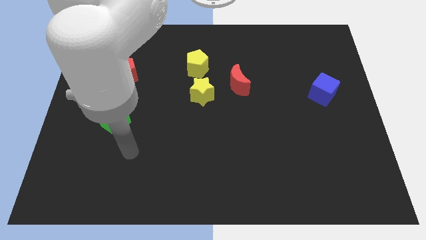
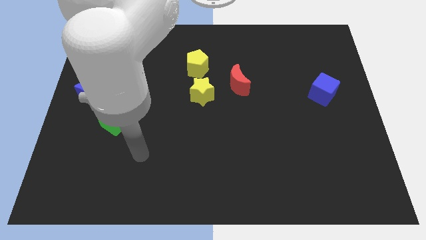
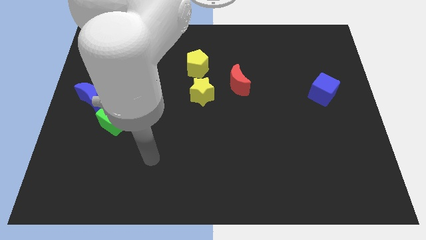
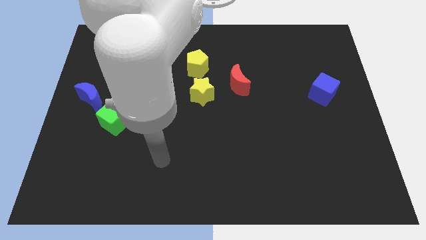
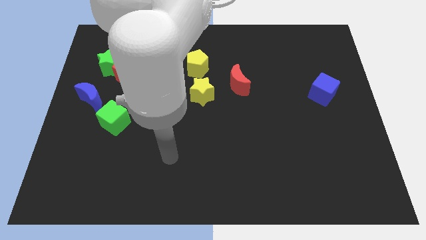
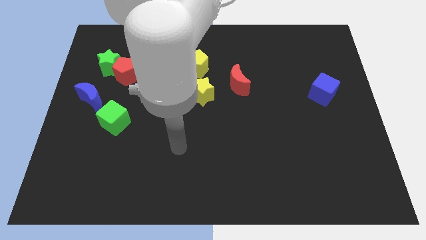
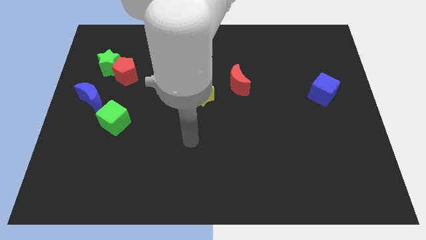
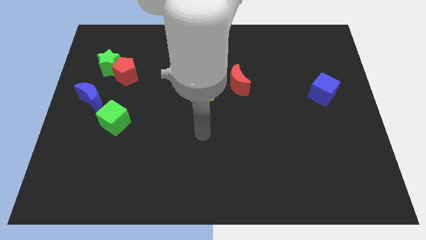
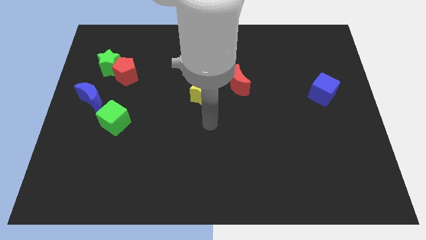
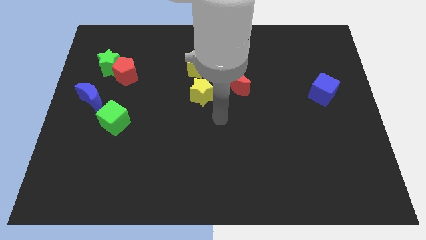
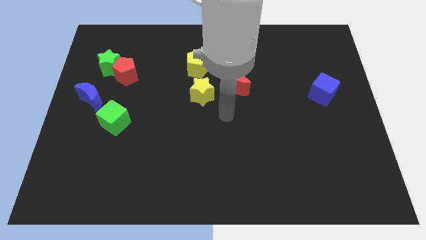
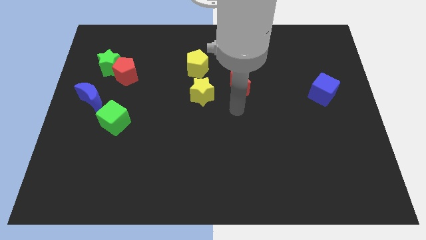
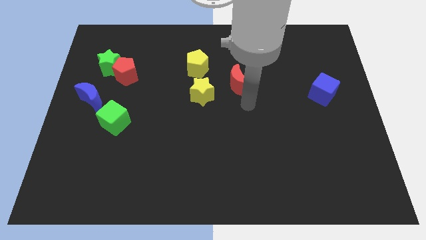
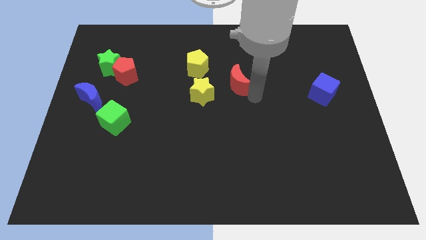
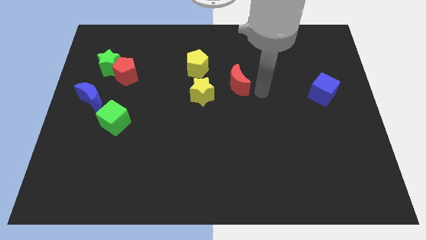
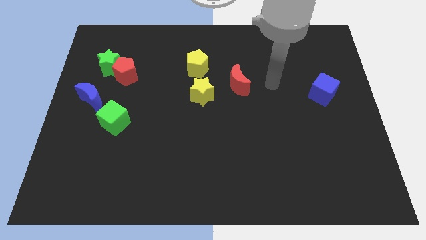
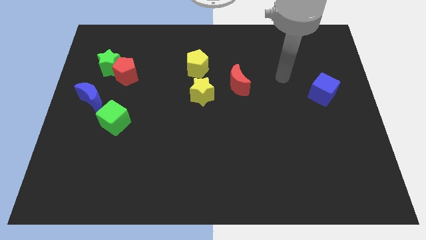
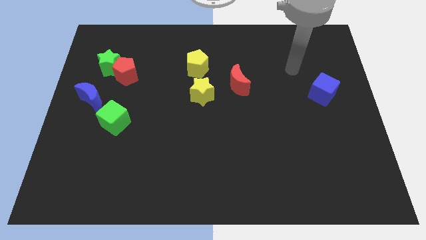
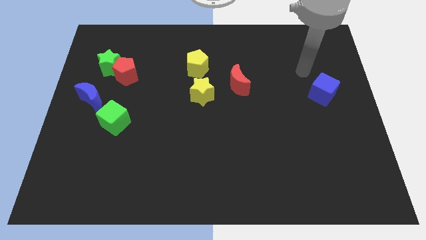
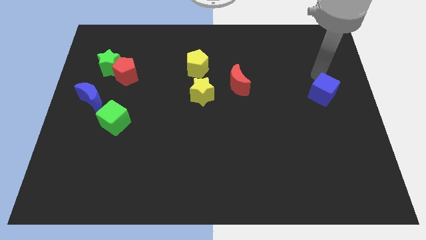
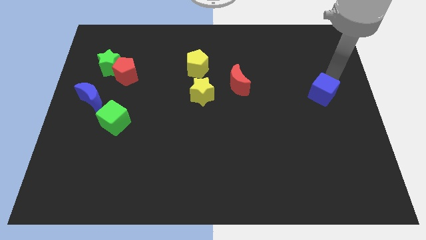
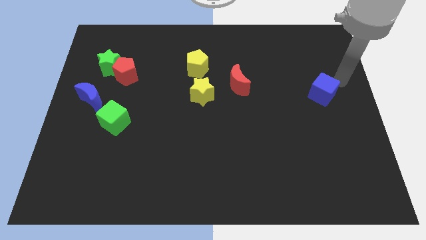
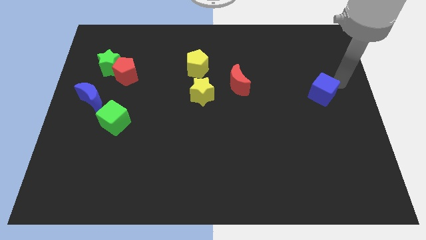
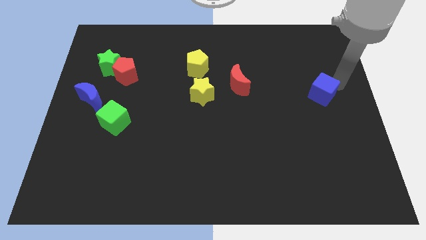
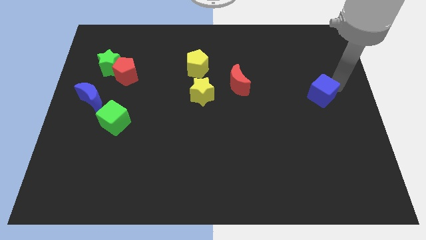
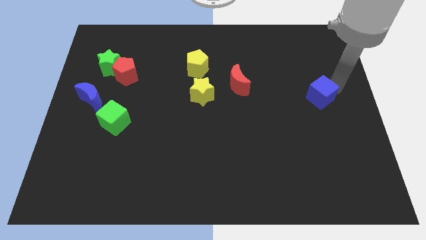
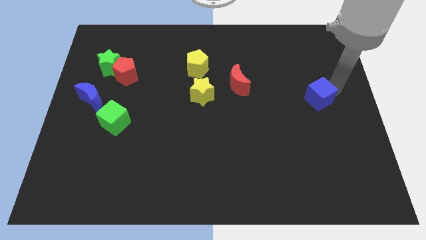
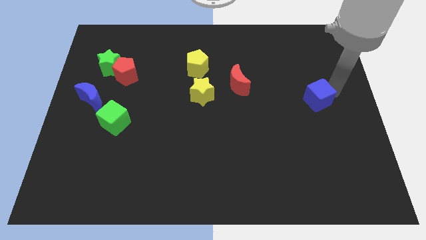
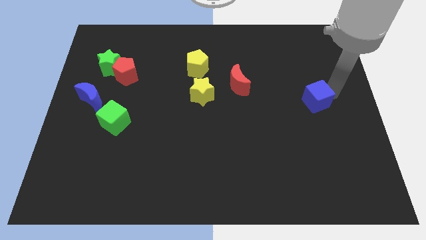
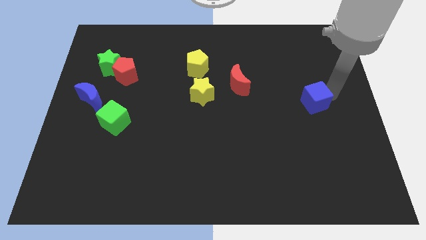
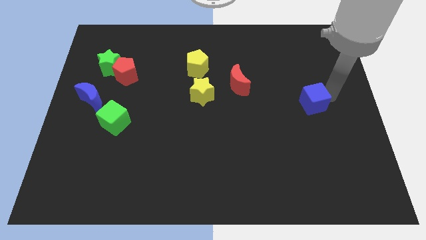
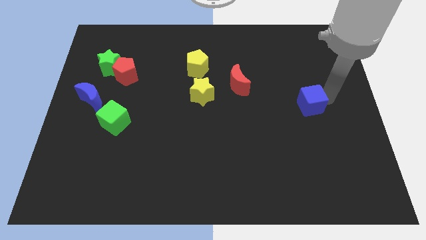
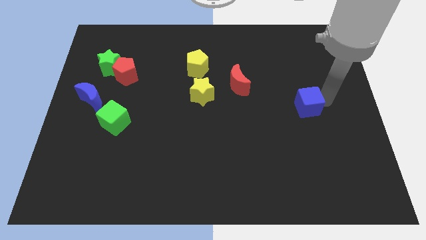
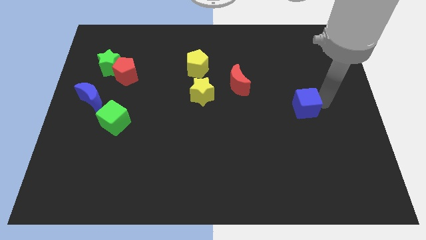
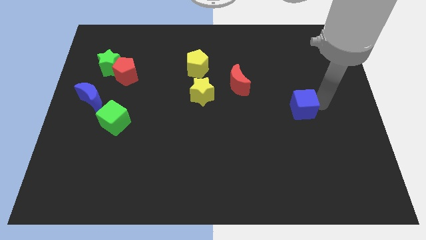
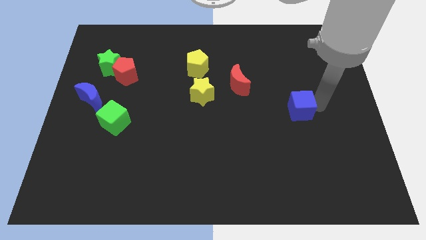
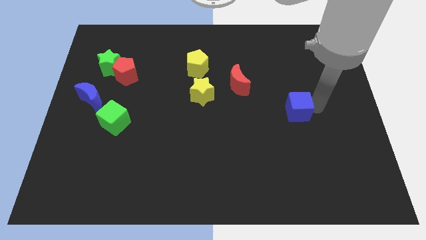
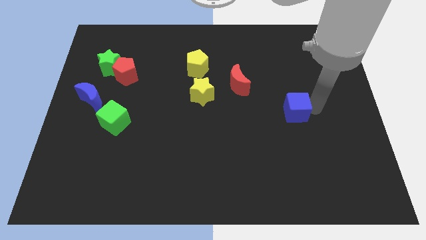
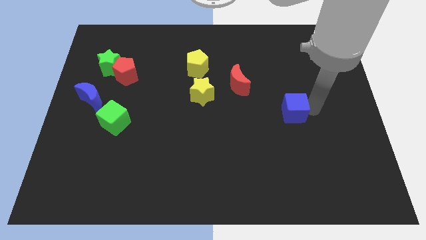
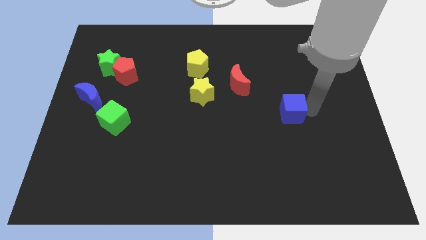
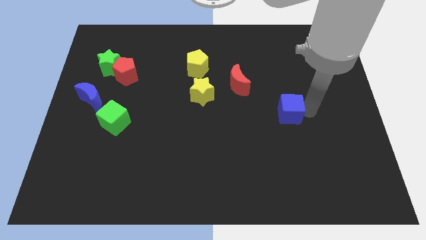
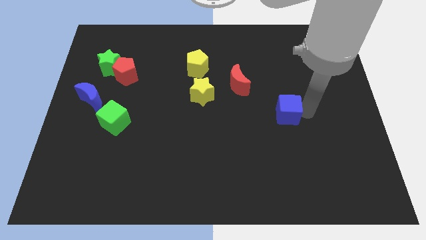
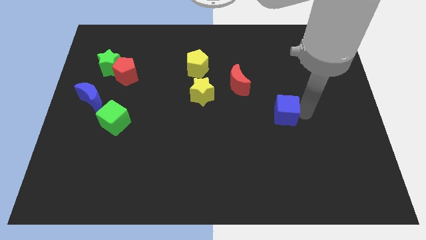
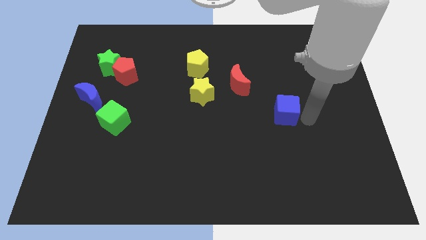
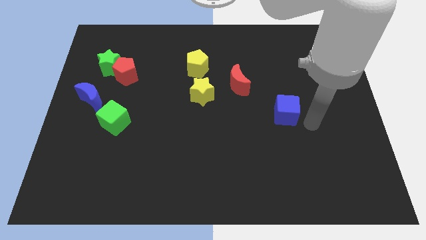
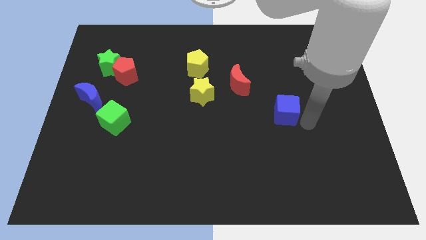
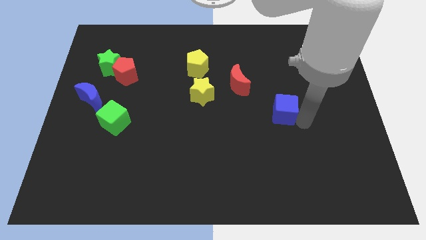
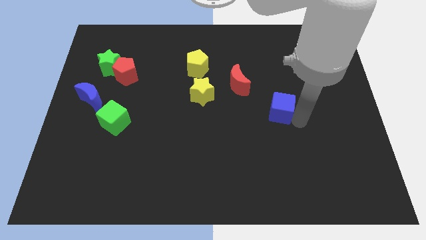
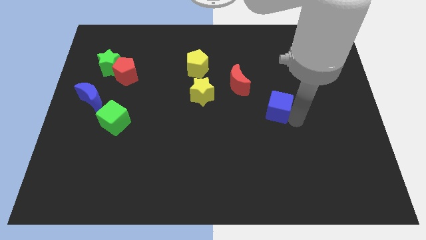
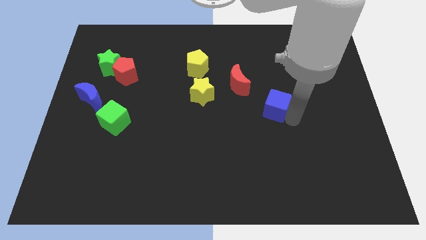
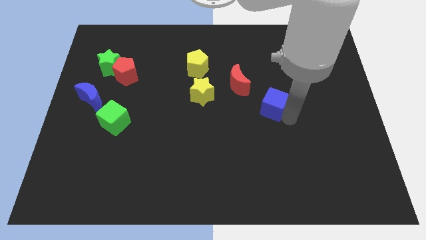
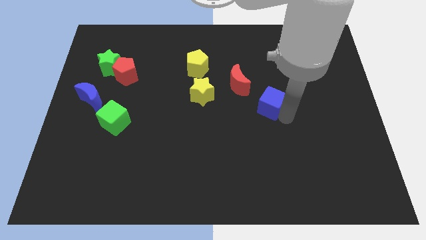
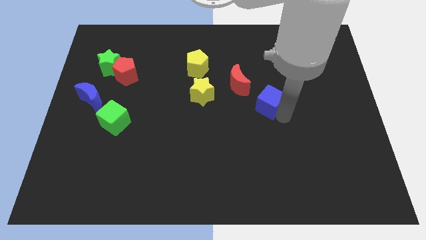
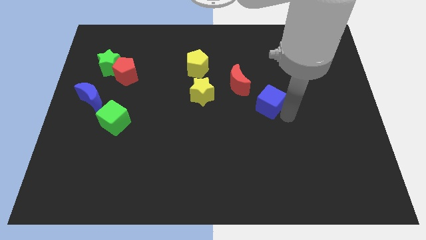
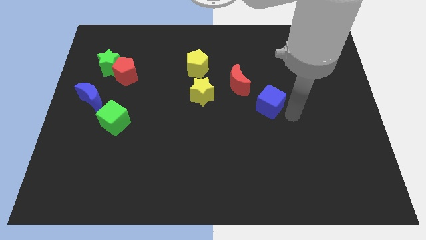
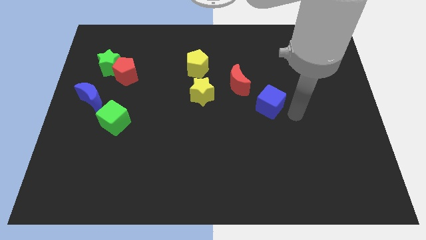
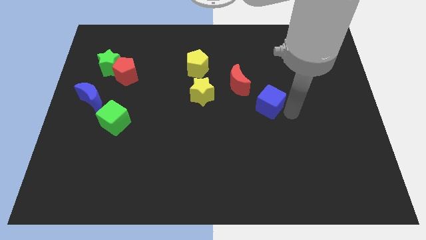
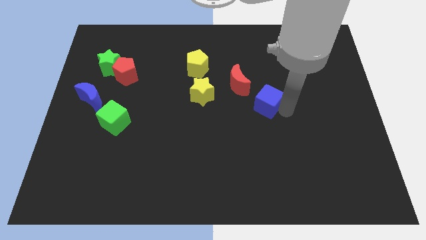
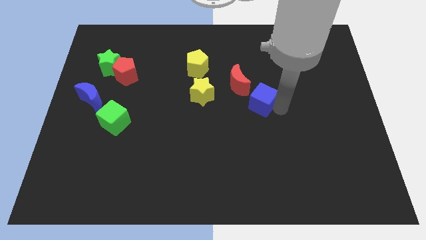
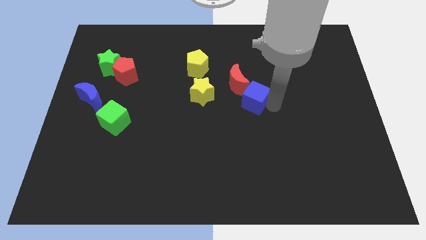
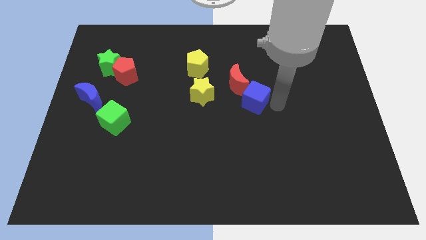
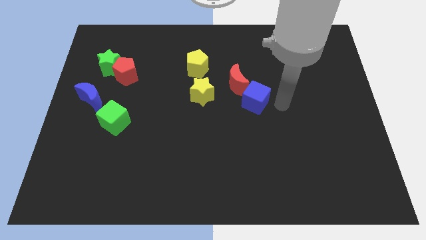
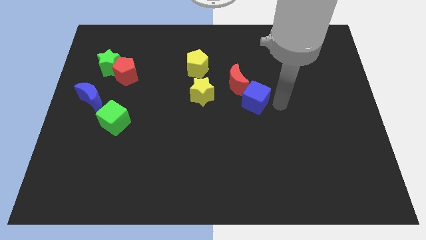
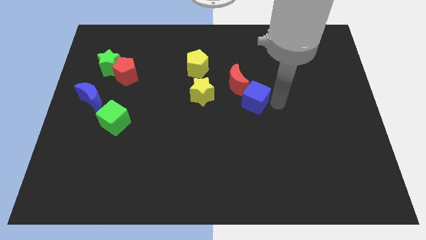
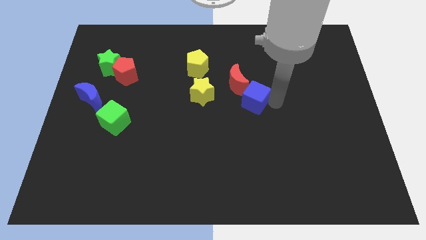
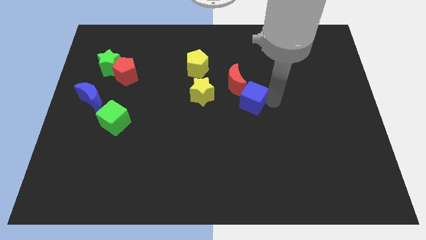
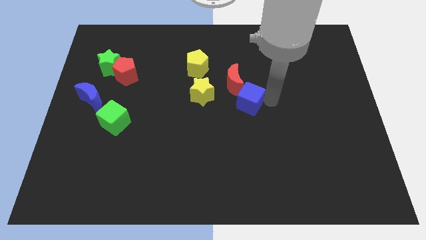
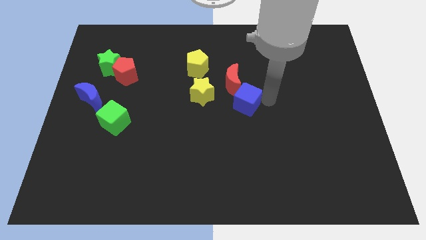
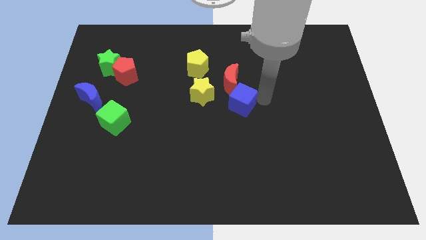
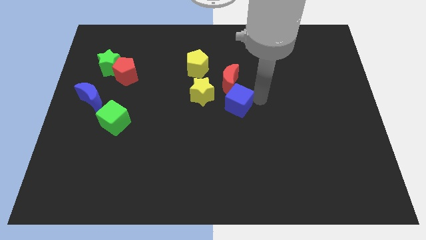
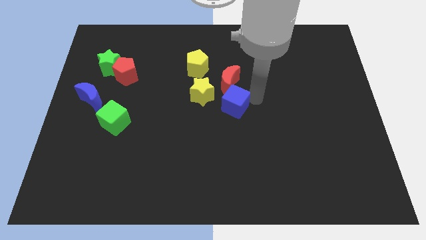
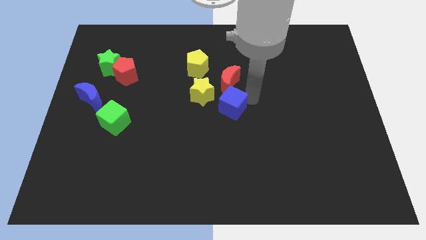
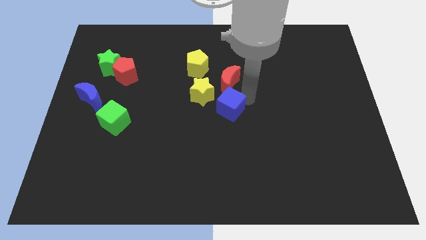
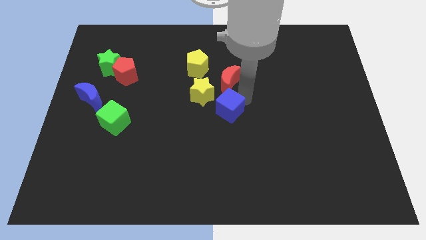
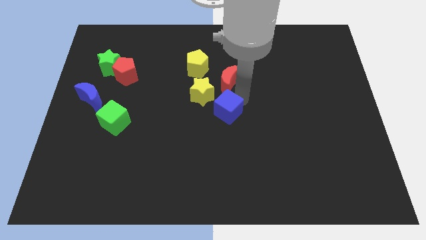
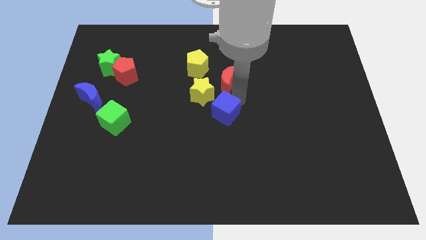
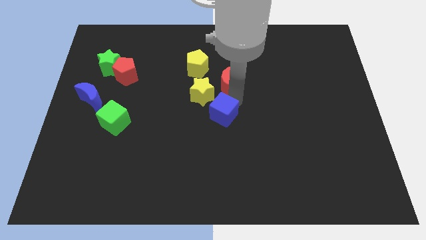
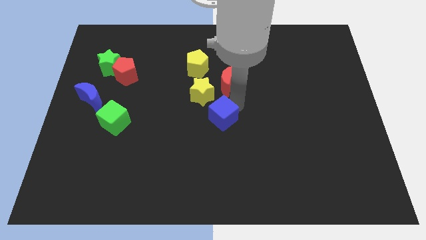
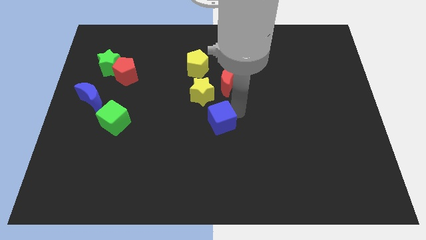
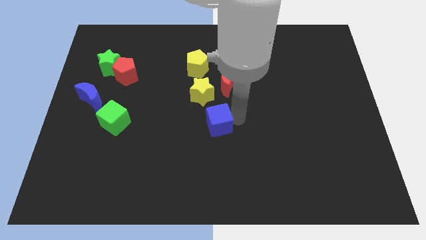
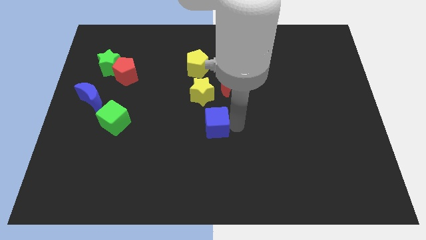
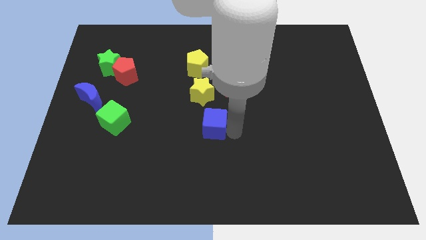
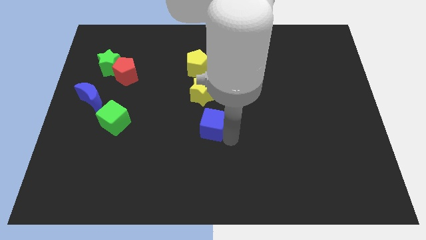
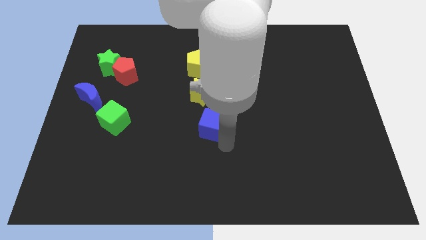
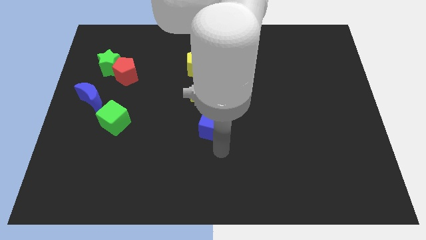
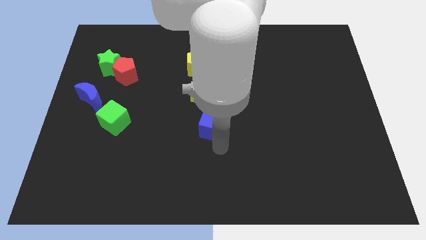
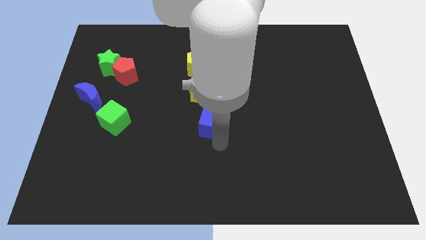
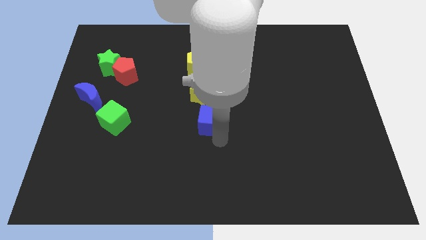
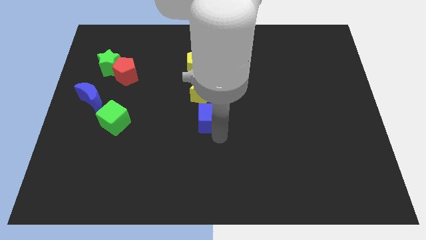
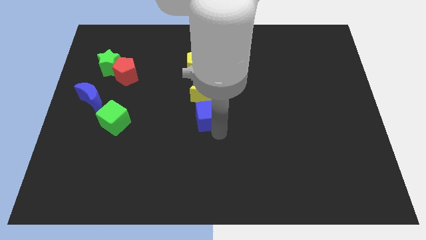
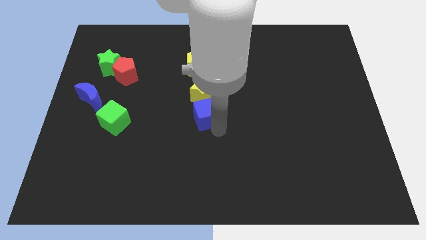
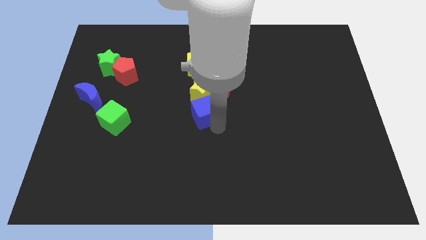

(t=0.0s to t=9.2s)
push the blue cube towards the yellow star
